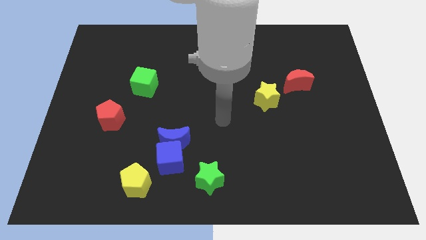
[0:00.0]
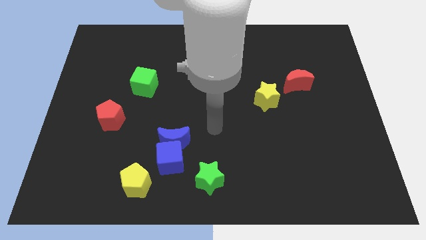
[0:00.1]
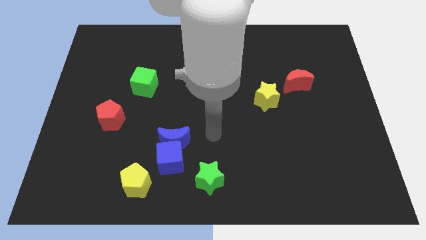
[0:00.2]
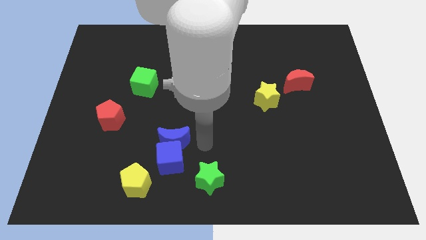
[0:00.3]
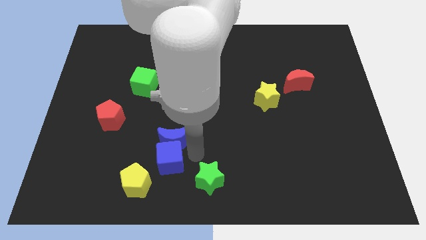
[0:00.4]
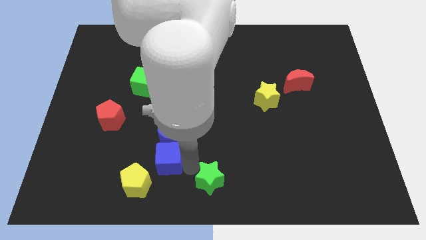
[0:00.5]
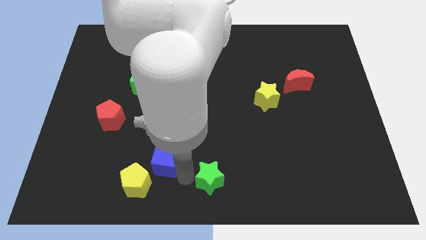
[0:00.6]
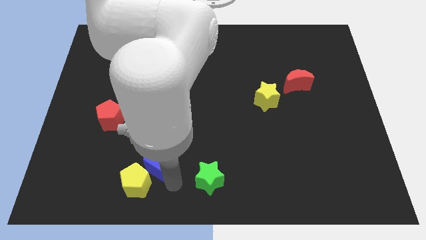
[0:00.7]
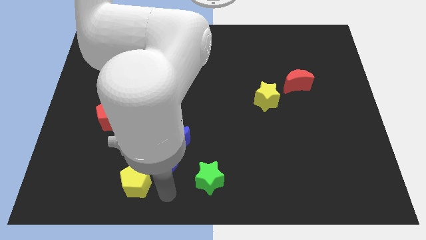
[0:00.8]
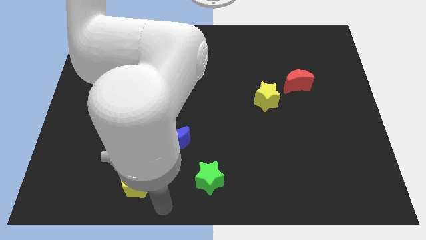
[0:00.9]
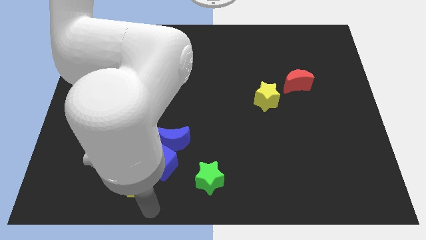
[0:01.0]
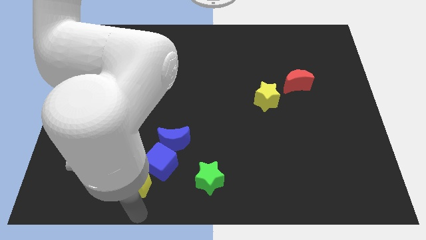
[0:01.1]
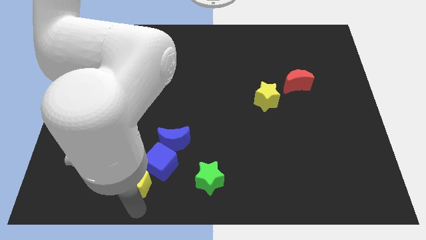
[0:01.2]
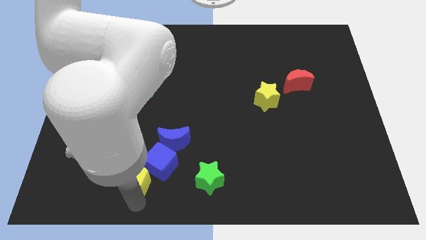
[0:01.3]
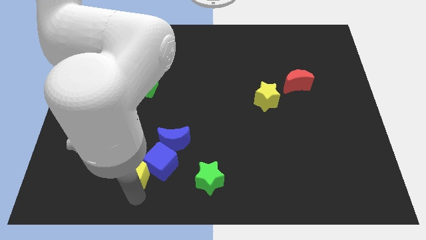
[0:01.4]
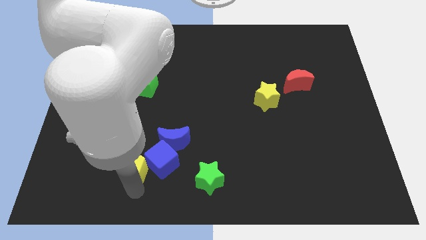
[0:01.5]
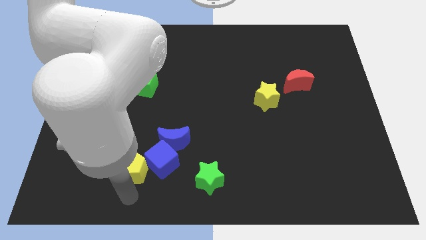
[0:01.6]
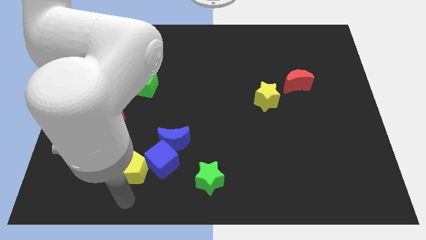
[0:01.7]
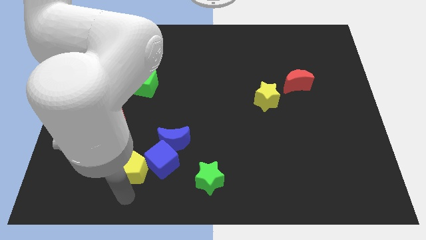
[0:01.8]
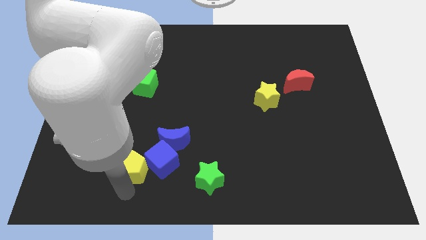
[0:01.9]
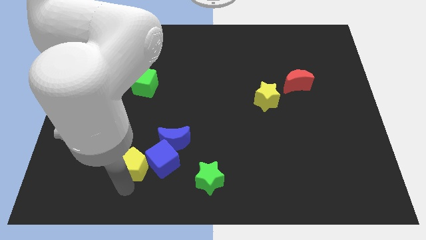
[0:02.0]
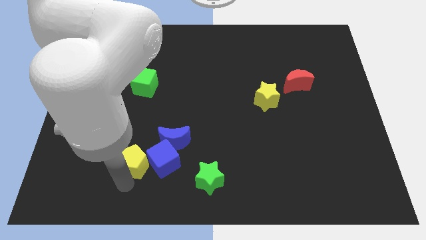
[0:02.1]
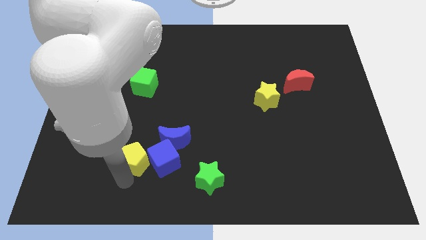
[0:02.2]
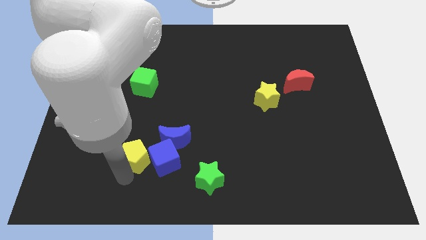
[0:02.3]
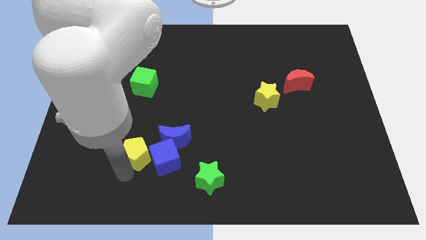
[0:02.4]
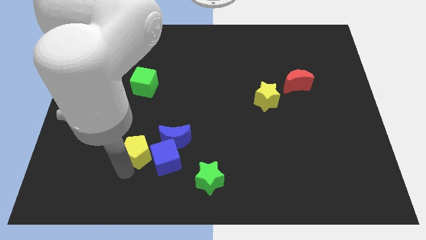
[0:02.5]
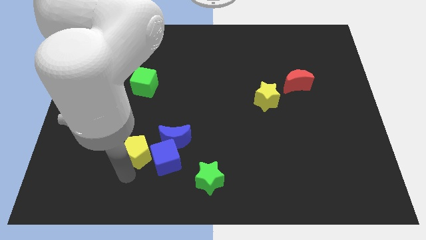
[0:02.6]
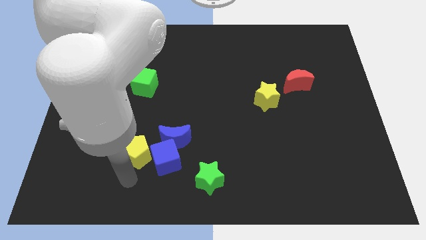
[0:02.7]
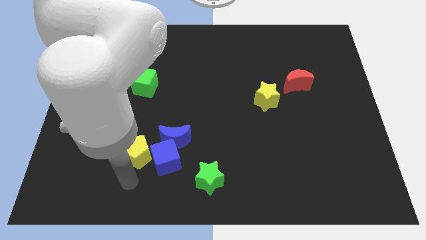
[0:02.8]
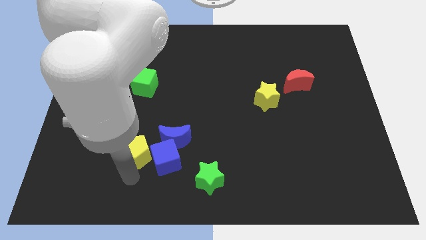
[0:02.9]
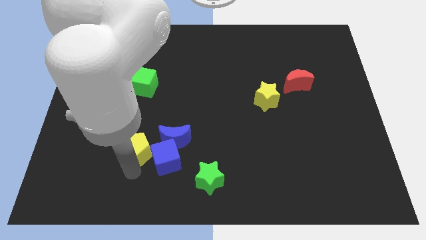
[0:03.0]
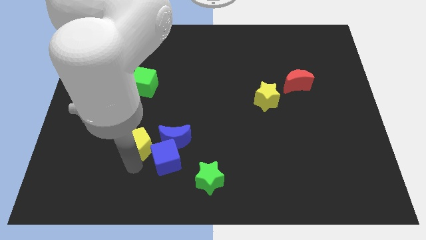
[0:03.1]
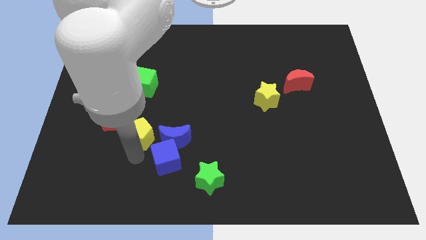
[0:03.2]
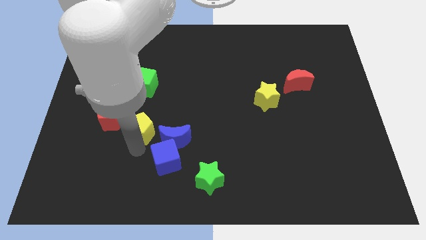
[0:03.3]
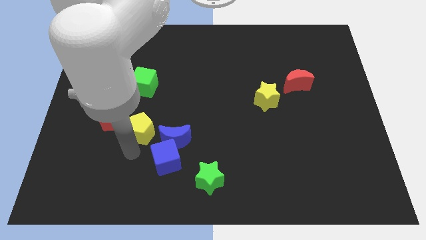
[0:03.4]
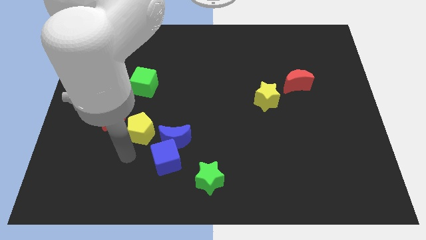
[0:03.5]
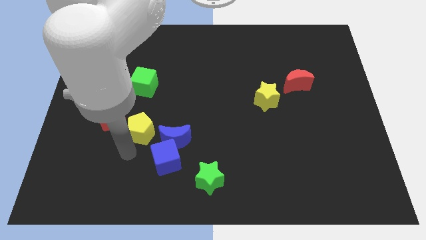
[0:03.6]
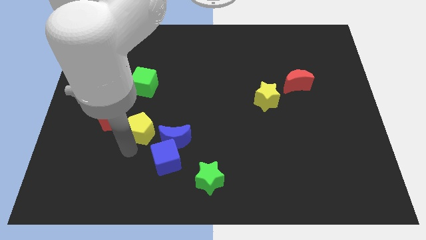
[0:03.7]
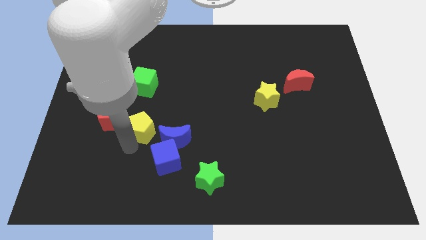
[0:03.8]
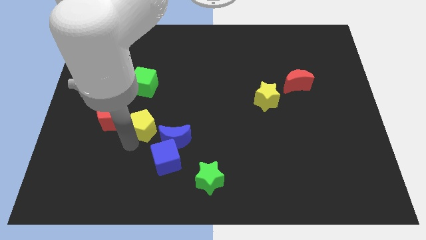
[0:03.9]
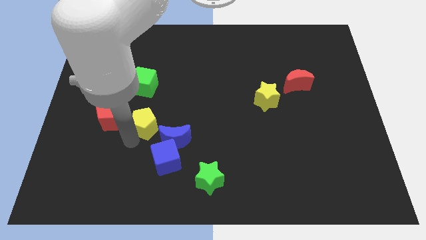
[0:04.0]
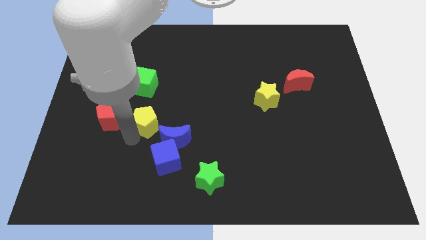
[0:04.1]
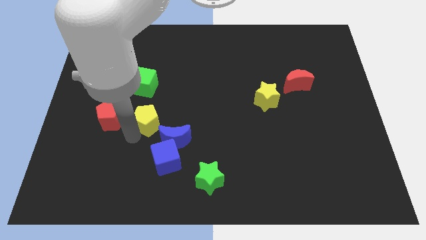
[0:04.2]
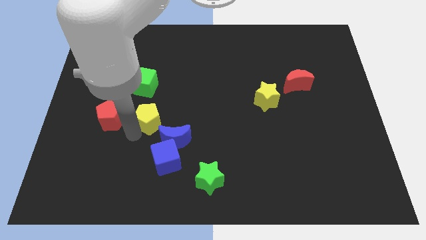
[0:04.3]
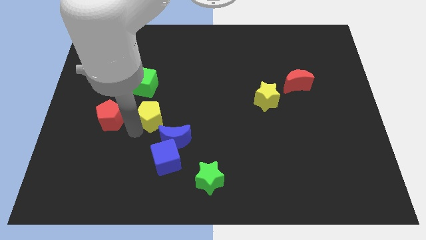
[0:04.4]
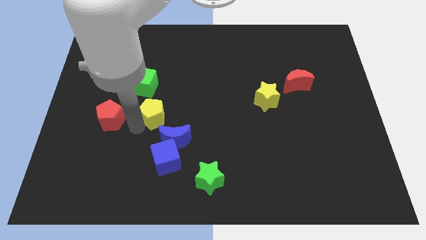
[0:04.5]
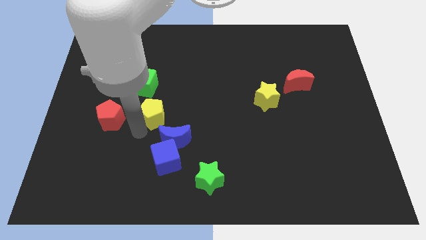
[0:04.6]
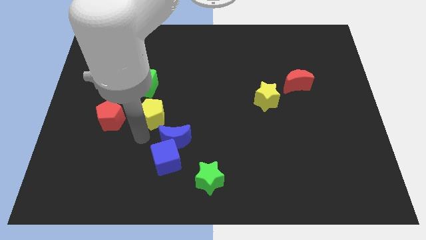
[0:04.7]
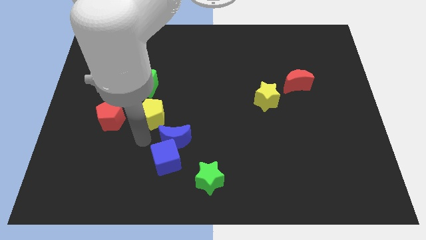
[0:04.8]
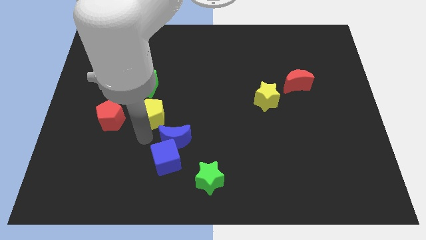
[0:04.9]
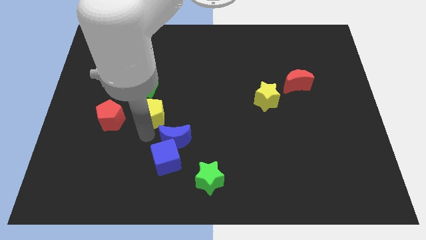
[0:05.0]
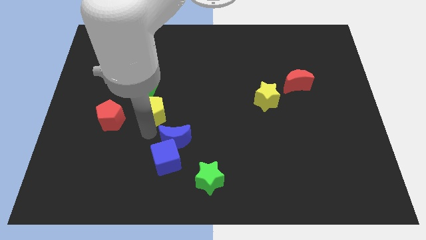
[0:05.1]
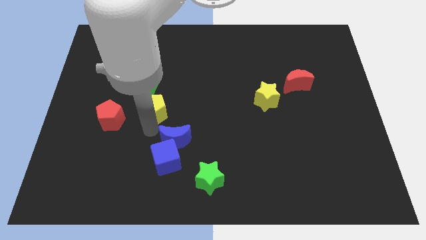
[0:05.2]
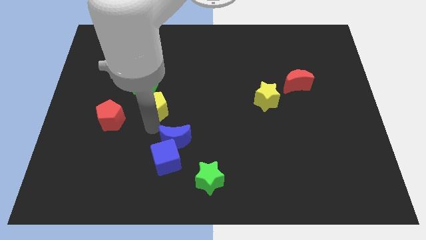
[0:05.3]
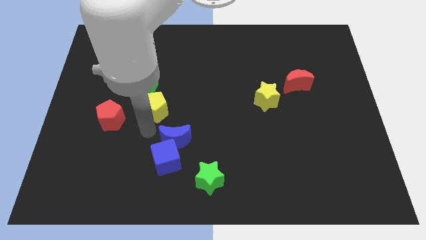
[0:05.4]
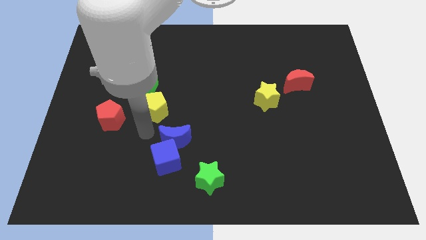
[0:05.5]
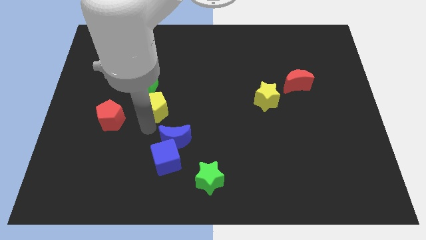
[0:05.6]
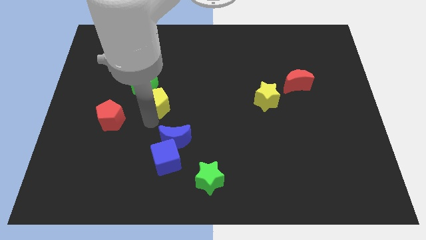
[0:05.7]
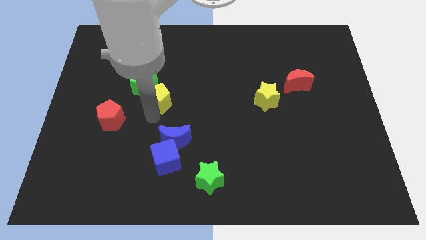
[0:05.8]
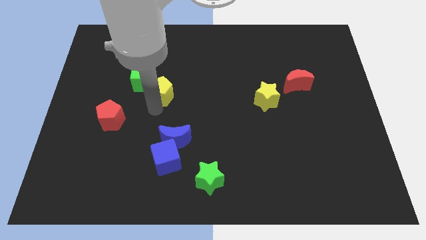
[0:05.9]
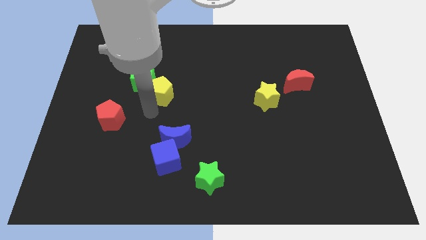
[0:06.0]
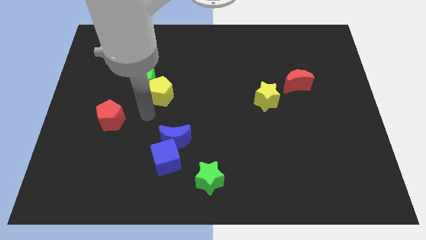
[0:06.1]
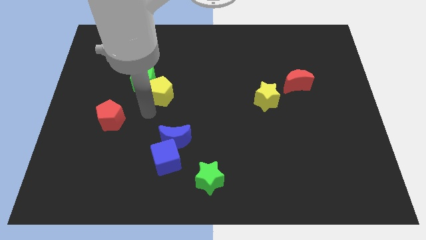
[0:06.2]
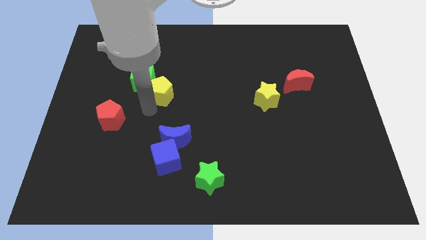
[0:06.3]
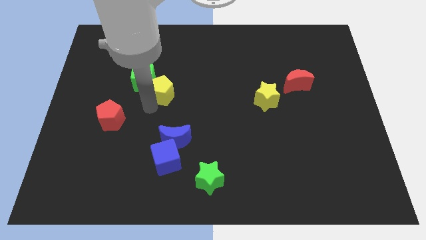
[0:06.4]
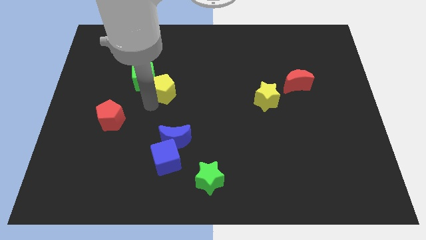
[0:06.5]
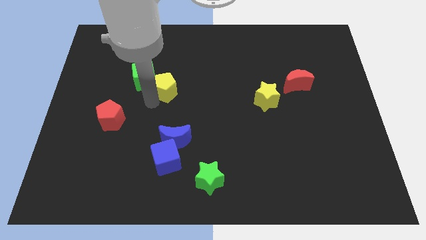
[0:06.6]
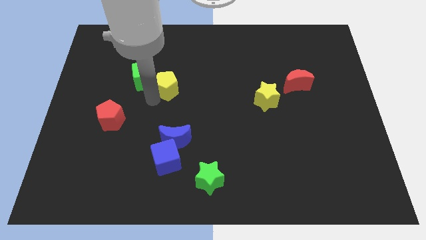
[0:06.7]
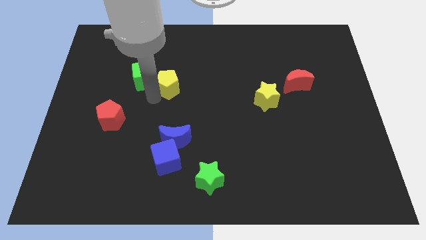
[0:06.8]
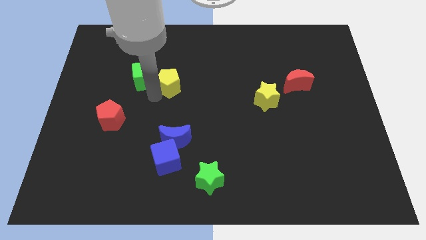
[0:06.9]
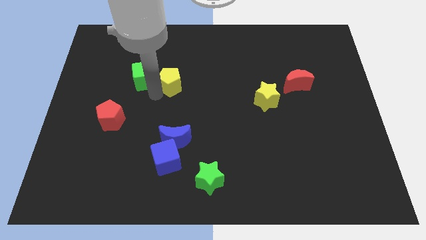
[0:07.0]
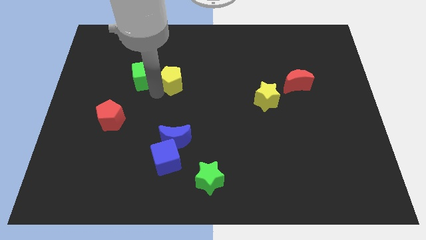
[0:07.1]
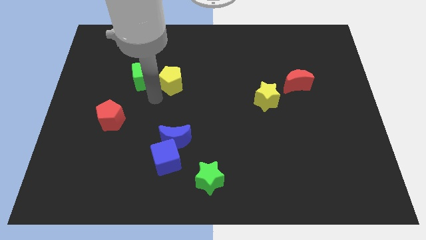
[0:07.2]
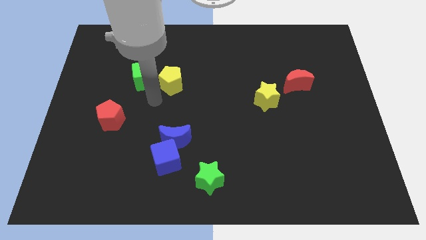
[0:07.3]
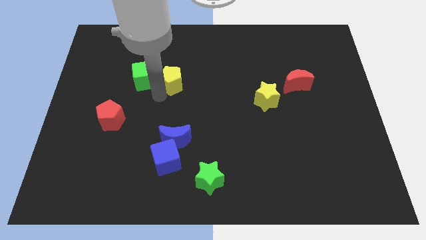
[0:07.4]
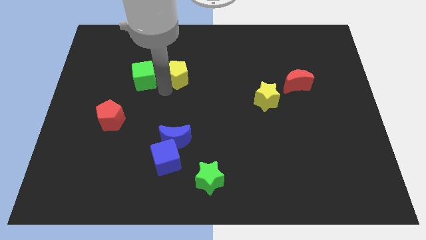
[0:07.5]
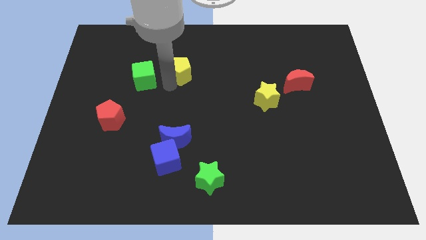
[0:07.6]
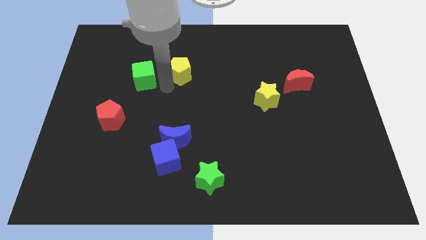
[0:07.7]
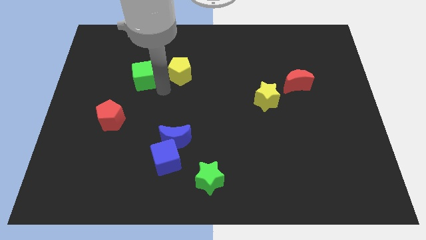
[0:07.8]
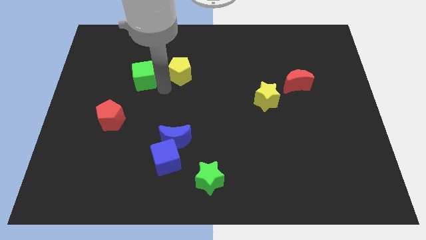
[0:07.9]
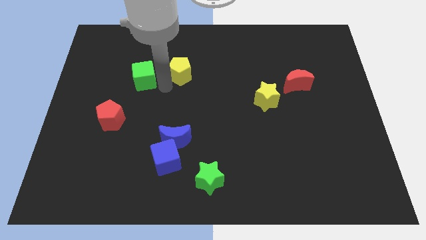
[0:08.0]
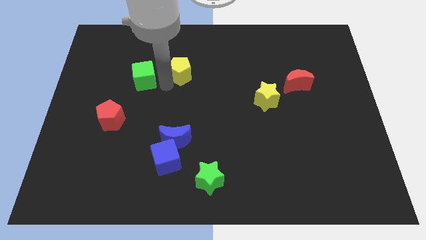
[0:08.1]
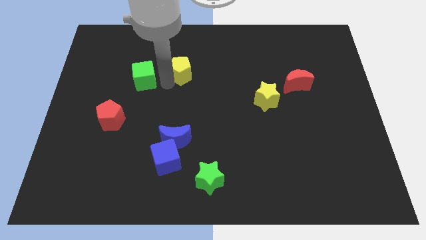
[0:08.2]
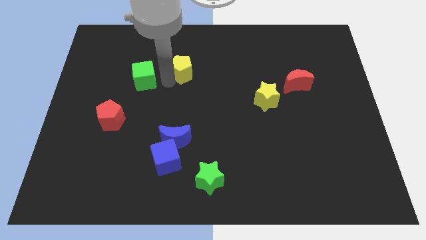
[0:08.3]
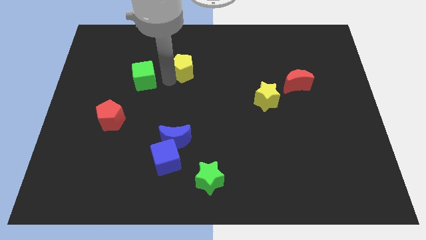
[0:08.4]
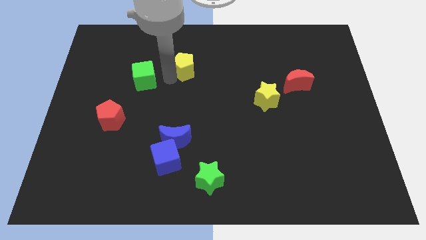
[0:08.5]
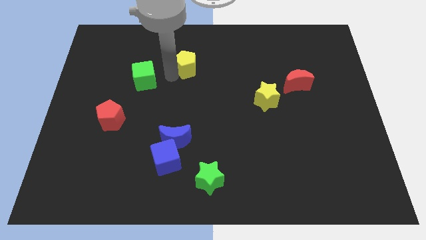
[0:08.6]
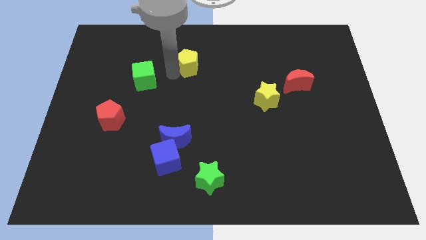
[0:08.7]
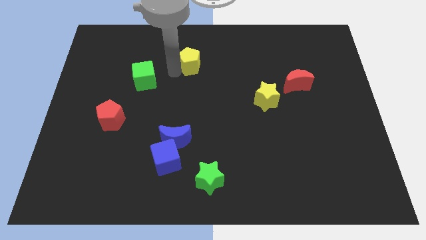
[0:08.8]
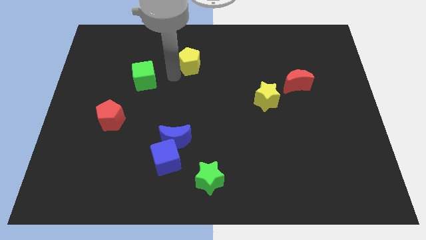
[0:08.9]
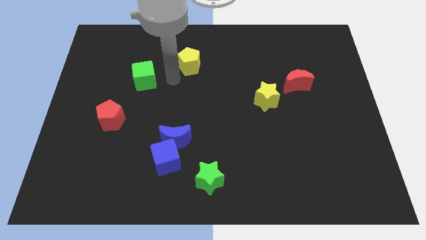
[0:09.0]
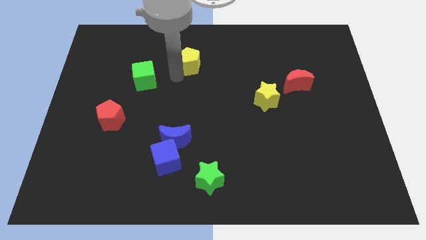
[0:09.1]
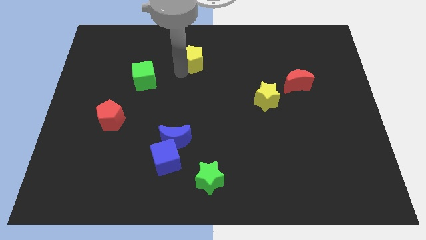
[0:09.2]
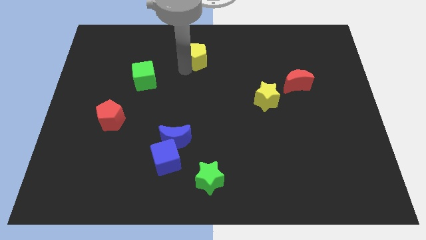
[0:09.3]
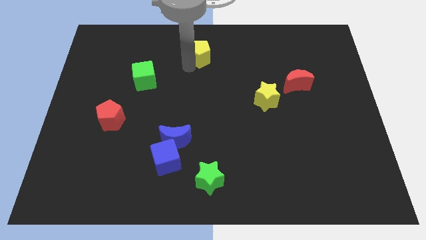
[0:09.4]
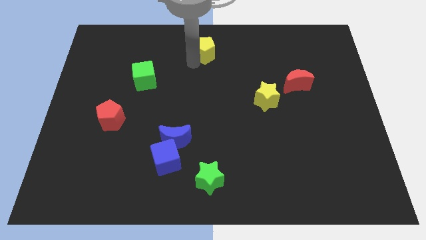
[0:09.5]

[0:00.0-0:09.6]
put the yellow pentagon to the top
